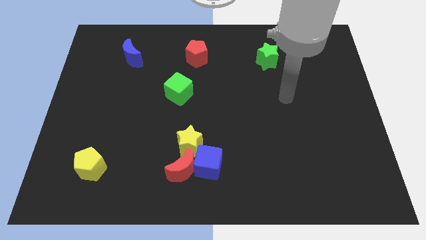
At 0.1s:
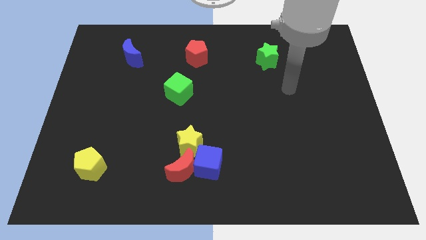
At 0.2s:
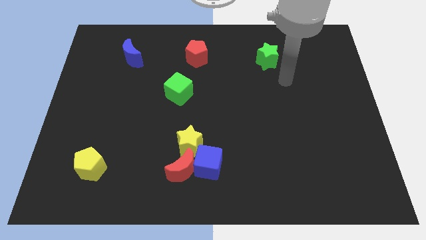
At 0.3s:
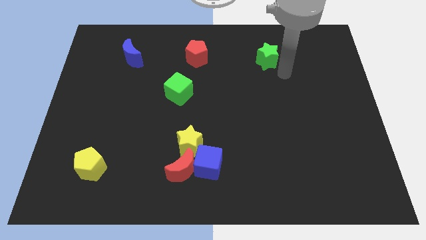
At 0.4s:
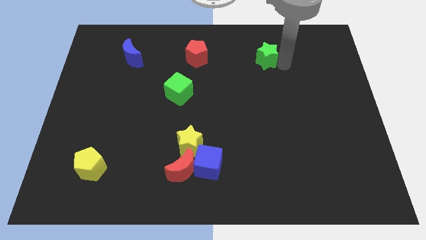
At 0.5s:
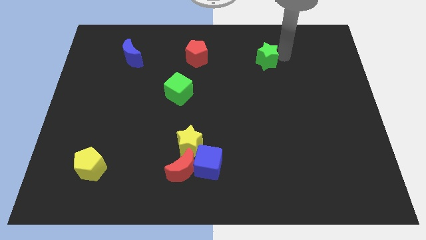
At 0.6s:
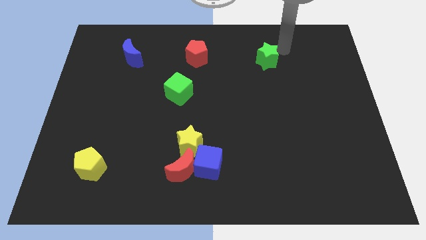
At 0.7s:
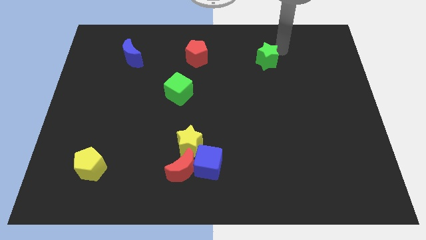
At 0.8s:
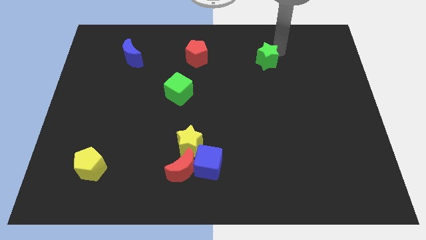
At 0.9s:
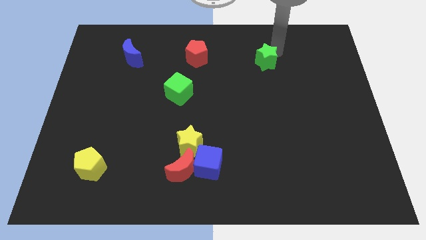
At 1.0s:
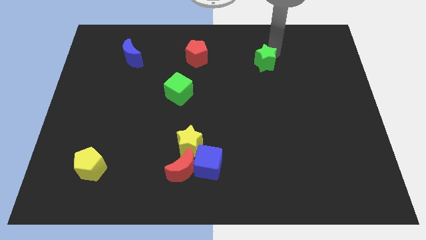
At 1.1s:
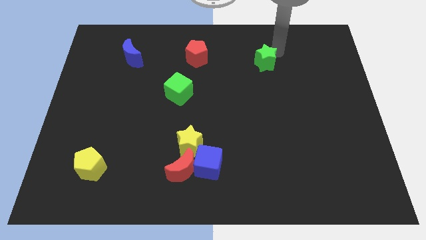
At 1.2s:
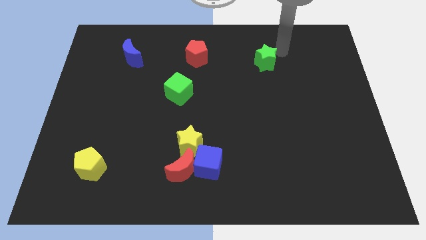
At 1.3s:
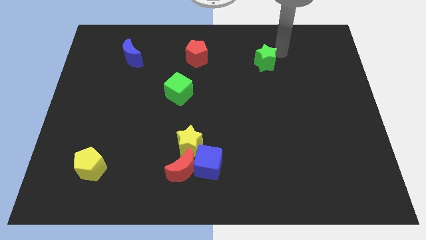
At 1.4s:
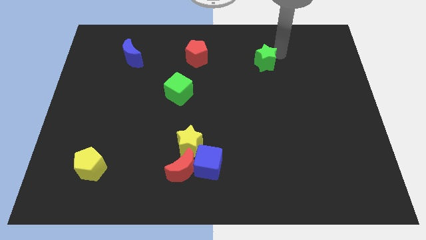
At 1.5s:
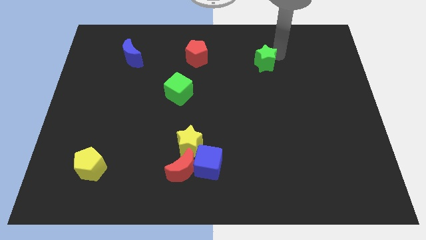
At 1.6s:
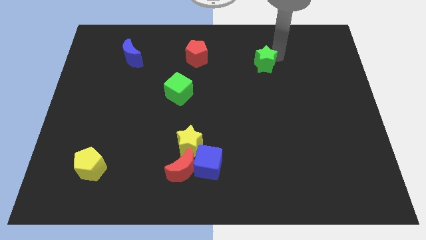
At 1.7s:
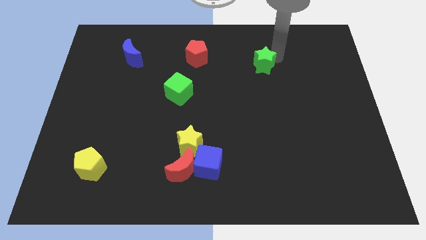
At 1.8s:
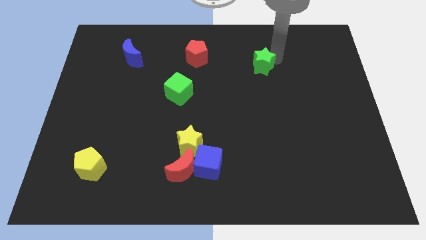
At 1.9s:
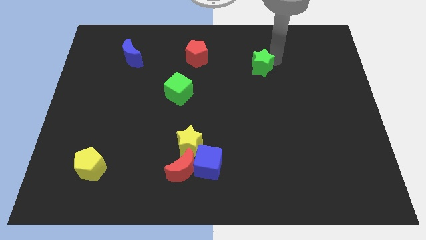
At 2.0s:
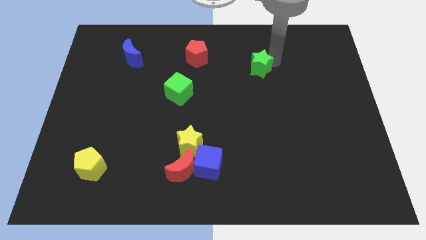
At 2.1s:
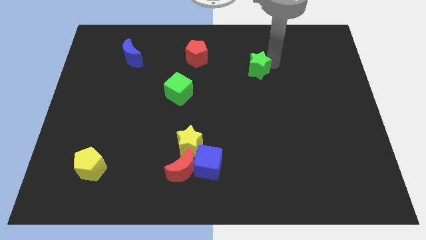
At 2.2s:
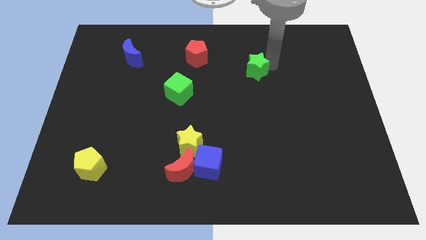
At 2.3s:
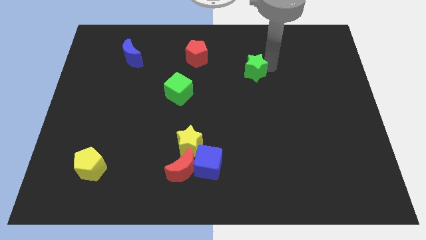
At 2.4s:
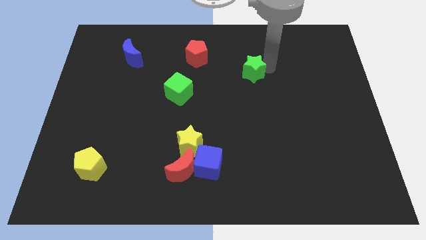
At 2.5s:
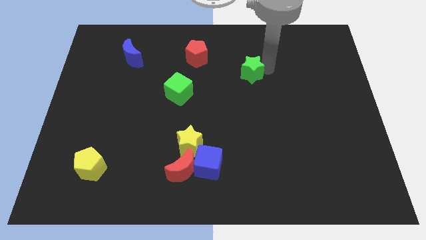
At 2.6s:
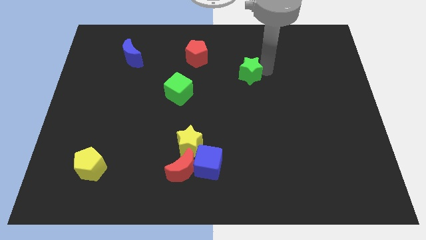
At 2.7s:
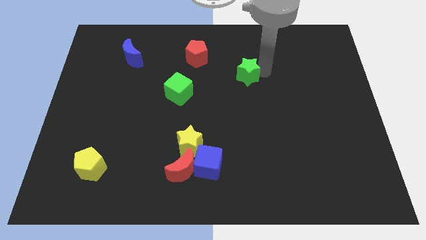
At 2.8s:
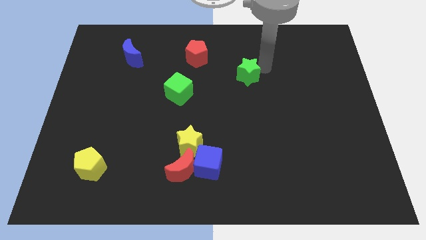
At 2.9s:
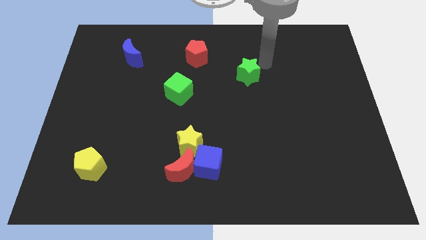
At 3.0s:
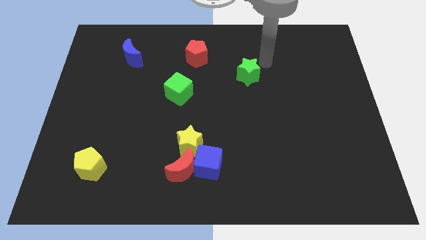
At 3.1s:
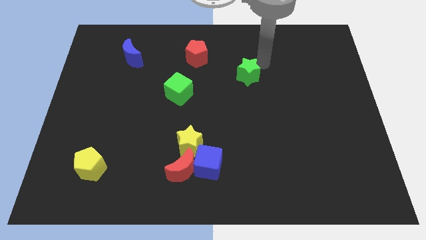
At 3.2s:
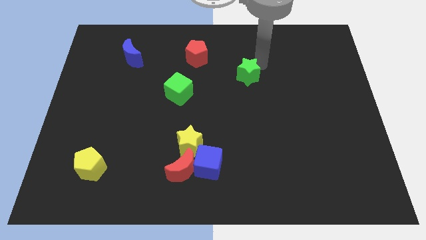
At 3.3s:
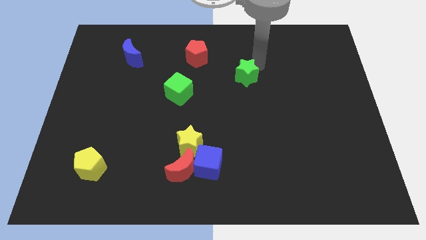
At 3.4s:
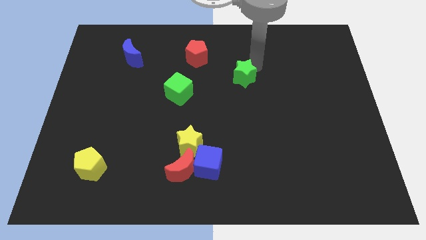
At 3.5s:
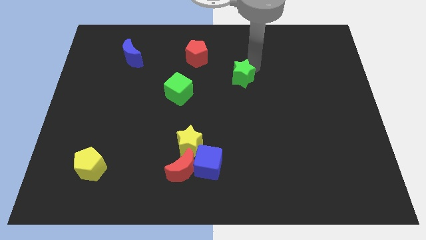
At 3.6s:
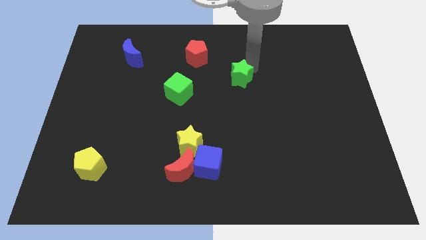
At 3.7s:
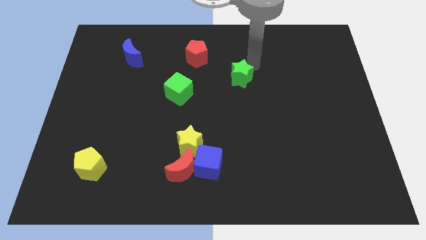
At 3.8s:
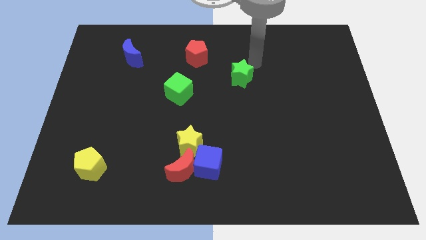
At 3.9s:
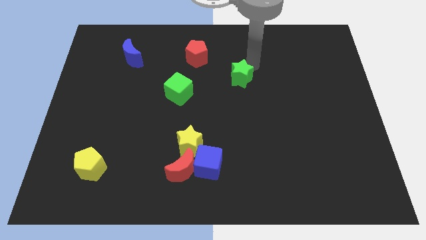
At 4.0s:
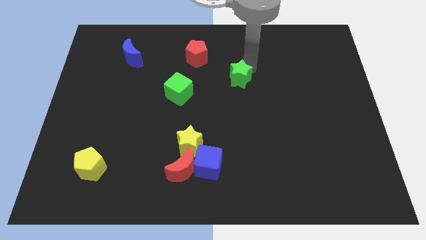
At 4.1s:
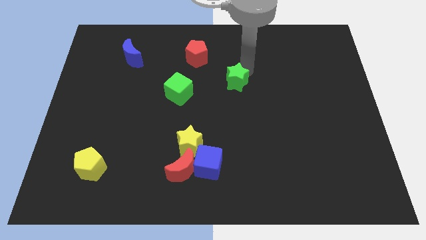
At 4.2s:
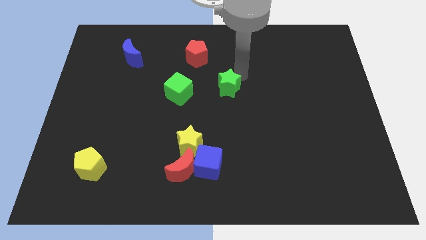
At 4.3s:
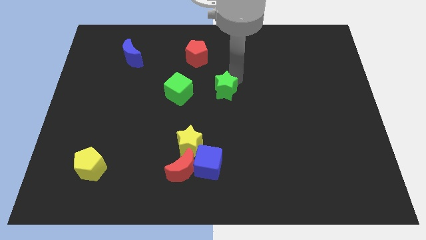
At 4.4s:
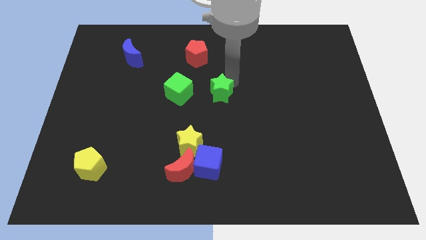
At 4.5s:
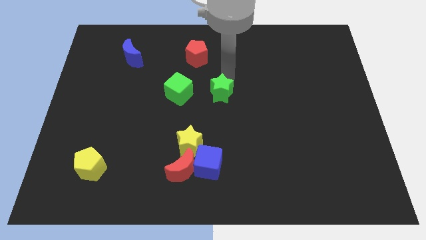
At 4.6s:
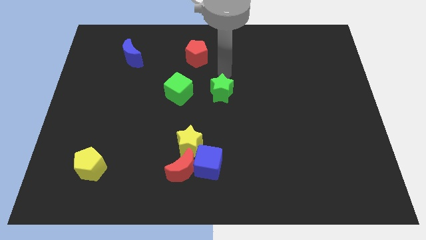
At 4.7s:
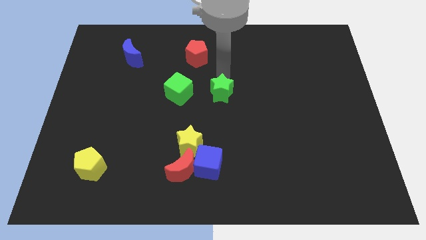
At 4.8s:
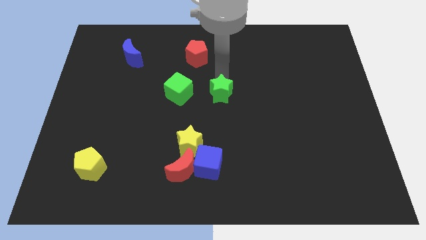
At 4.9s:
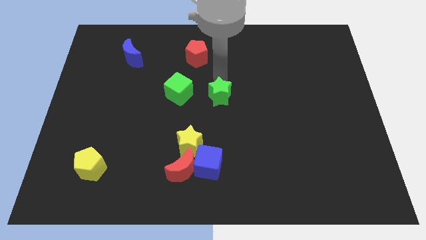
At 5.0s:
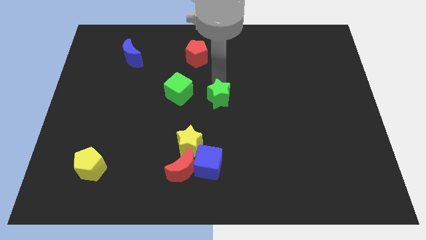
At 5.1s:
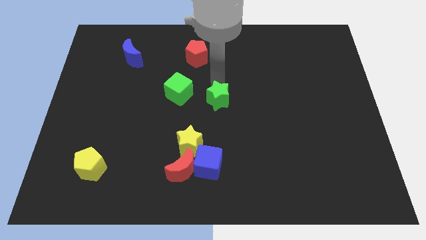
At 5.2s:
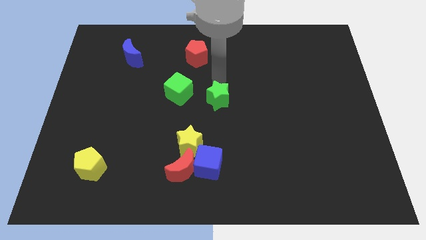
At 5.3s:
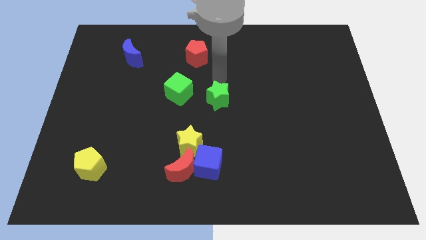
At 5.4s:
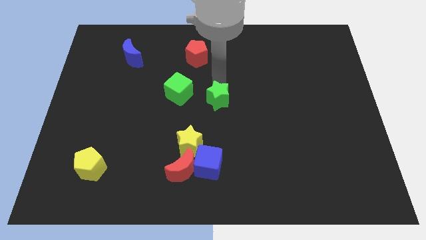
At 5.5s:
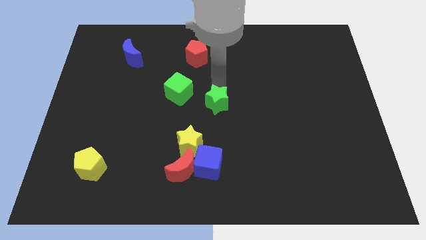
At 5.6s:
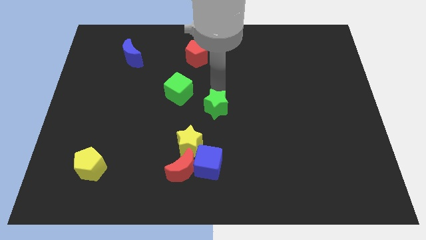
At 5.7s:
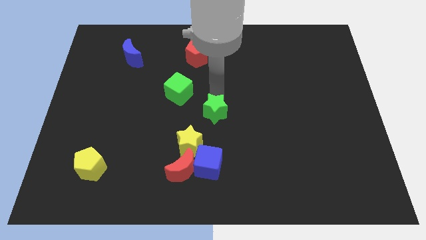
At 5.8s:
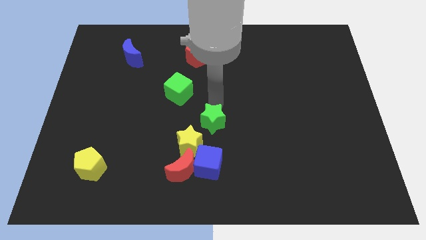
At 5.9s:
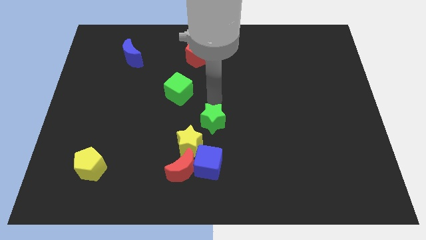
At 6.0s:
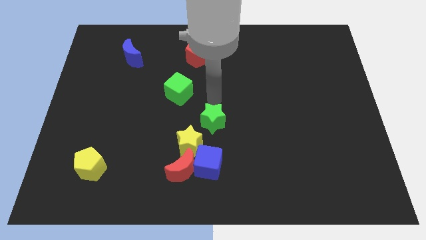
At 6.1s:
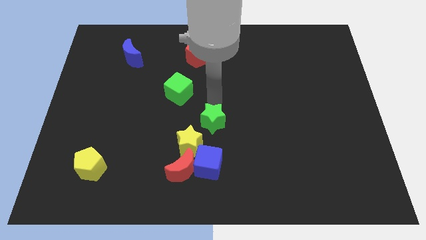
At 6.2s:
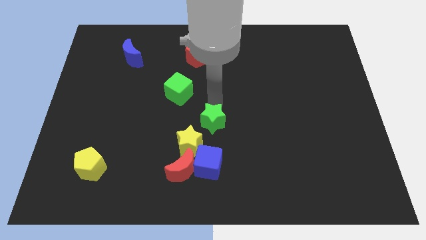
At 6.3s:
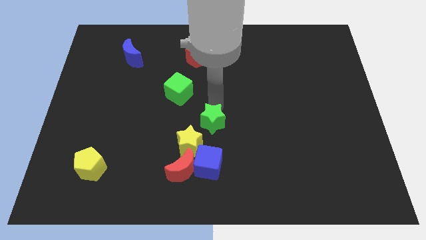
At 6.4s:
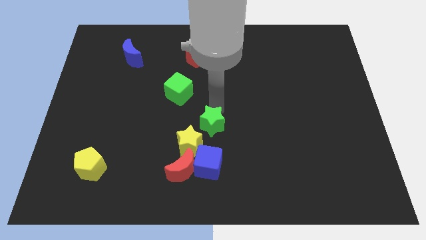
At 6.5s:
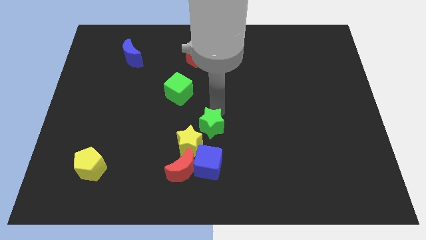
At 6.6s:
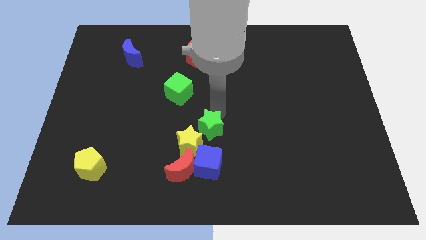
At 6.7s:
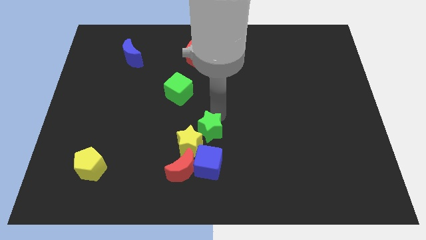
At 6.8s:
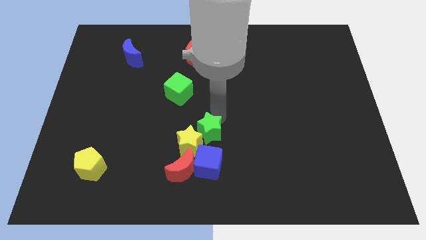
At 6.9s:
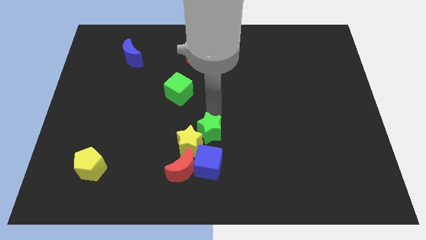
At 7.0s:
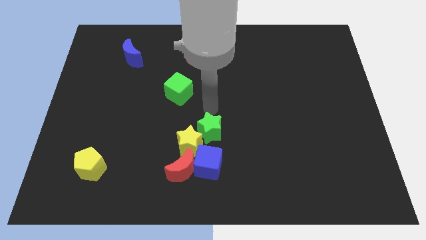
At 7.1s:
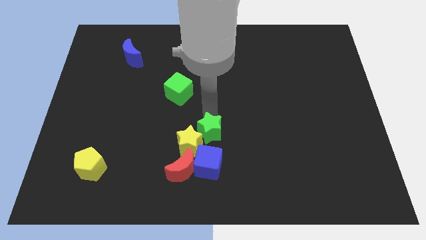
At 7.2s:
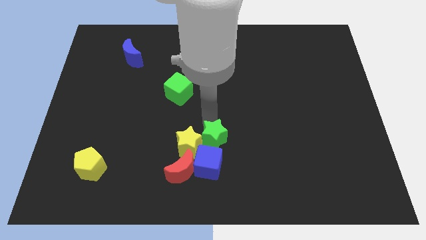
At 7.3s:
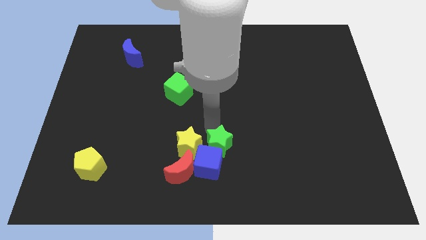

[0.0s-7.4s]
move the green star next to the blue cube
